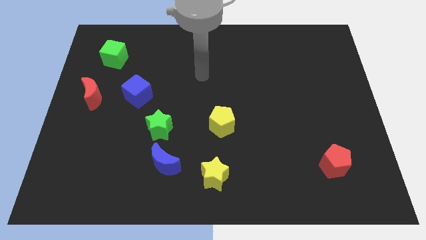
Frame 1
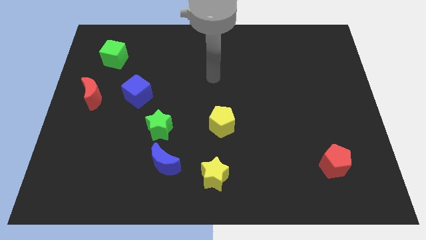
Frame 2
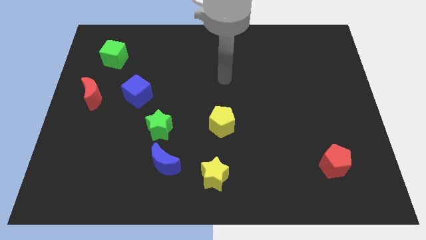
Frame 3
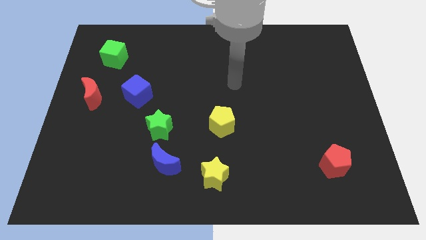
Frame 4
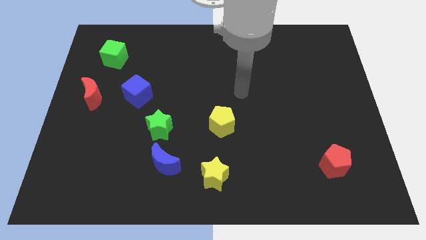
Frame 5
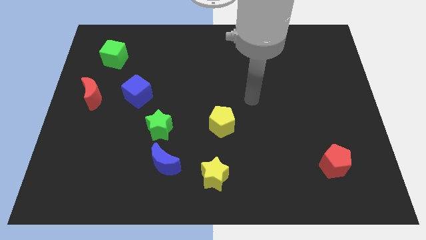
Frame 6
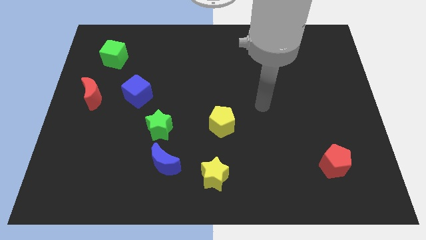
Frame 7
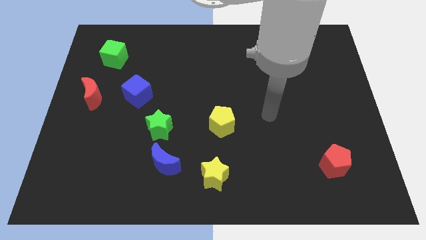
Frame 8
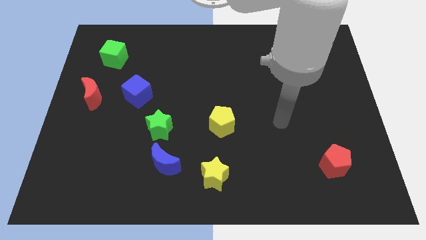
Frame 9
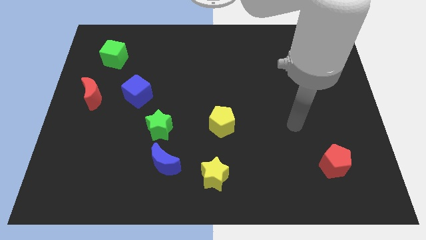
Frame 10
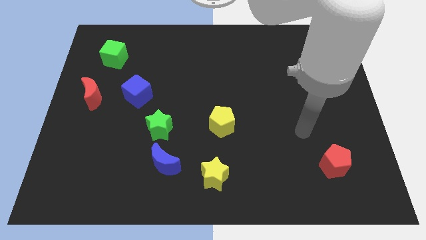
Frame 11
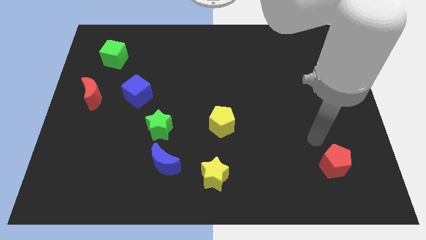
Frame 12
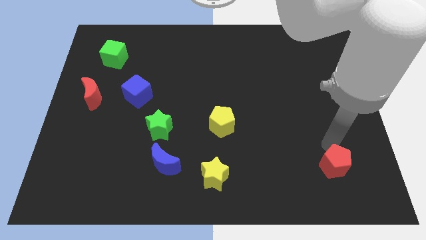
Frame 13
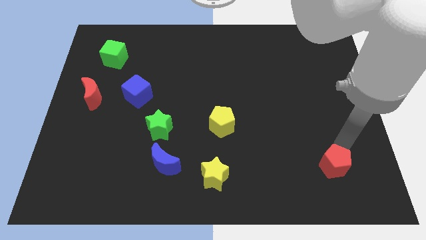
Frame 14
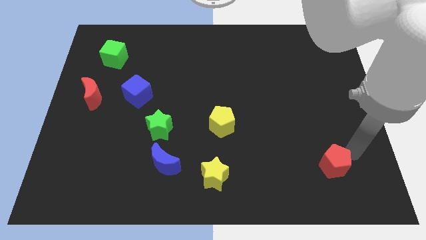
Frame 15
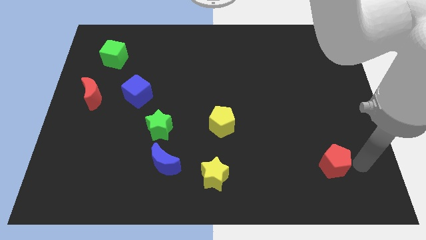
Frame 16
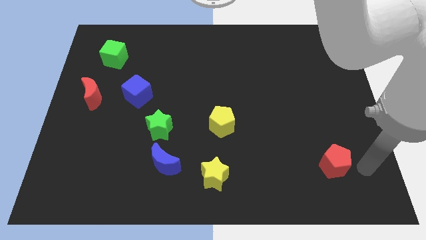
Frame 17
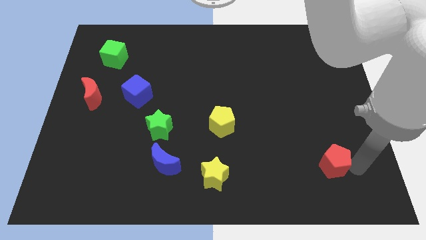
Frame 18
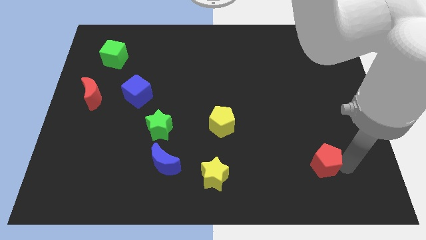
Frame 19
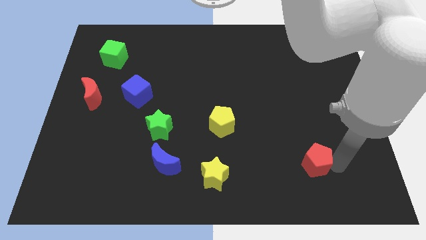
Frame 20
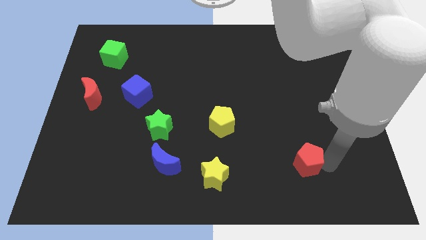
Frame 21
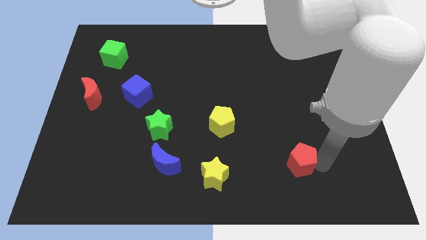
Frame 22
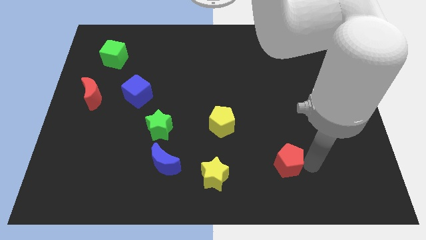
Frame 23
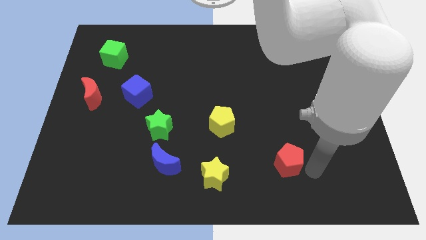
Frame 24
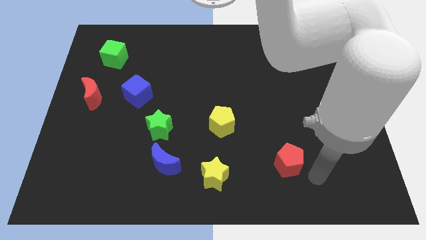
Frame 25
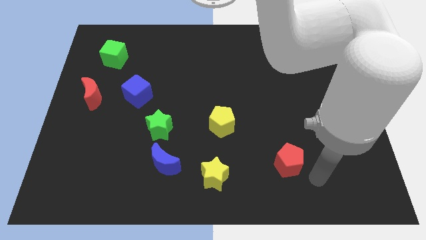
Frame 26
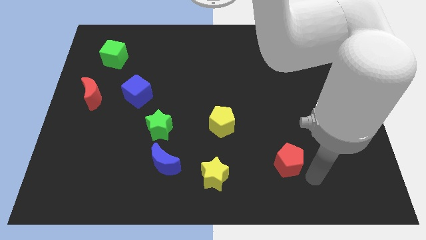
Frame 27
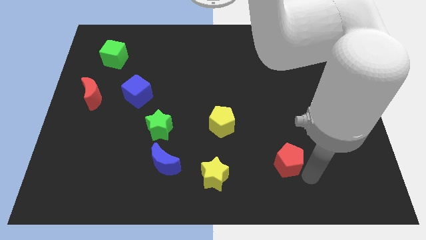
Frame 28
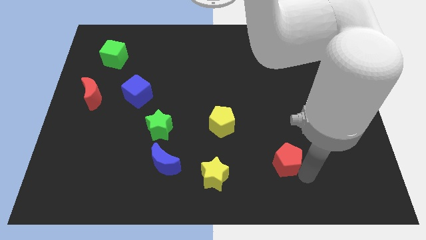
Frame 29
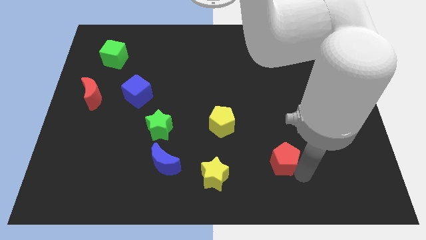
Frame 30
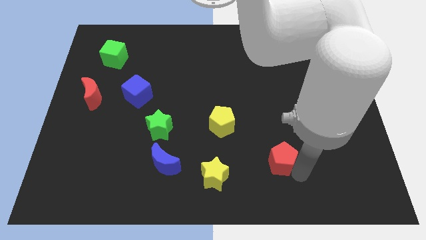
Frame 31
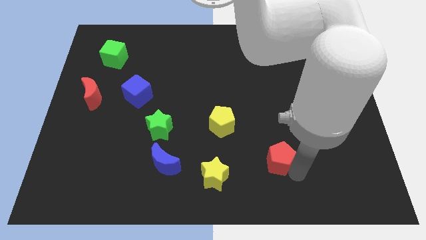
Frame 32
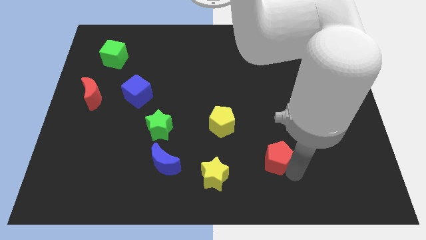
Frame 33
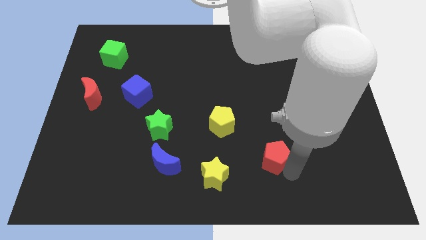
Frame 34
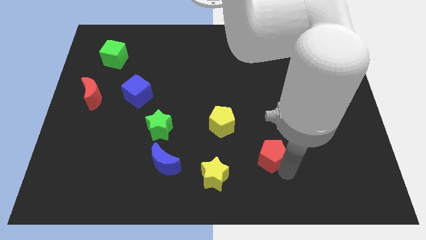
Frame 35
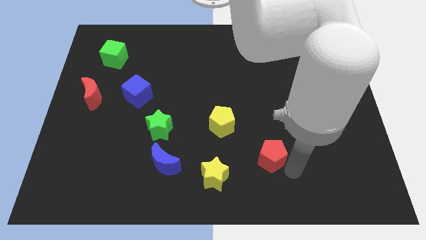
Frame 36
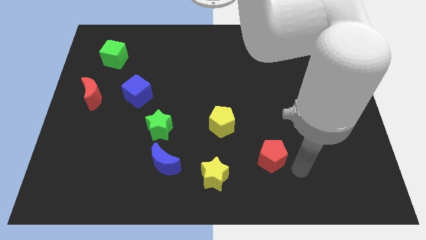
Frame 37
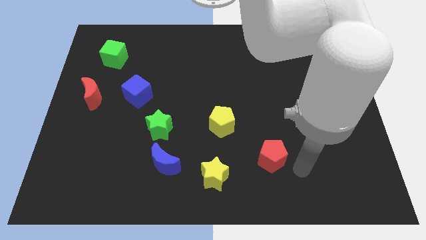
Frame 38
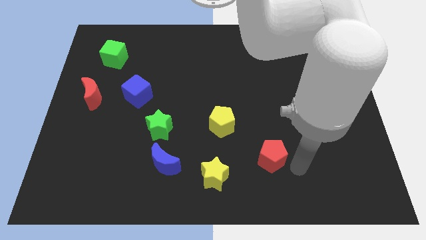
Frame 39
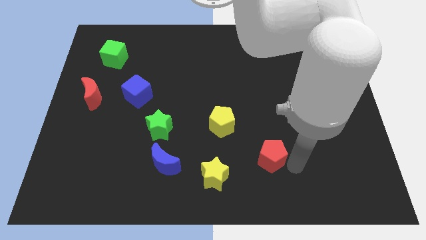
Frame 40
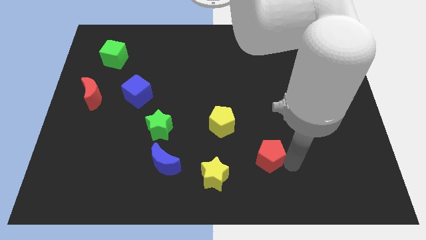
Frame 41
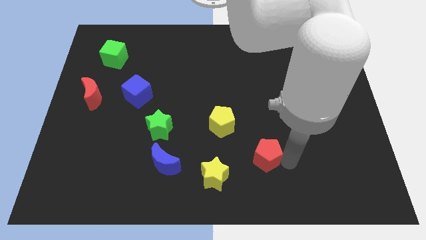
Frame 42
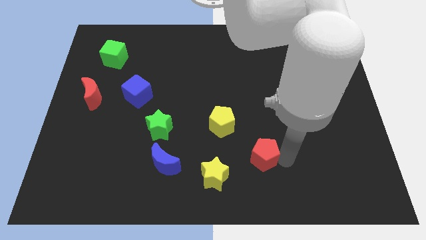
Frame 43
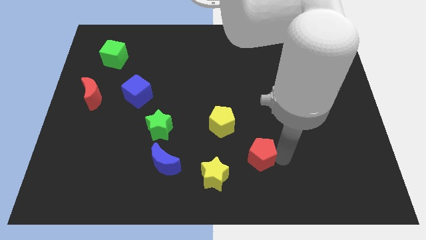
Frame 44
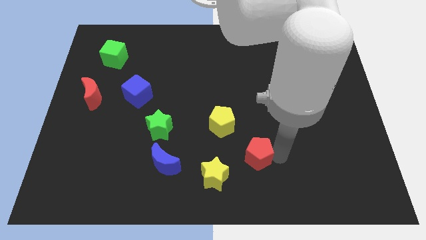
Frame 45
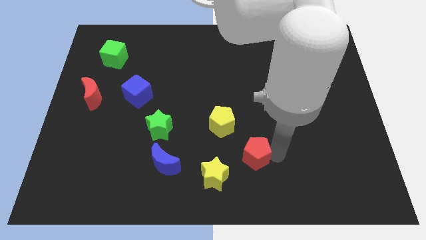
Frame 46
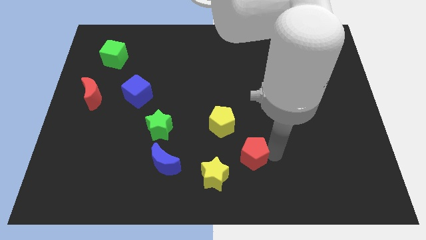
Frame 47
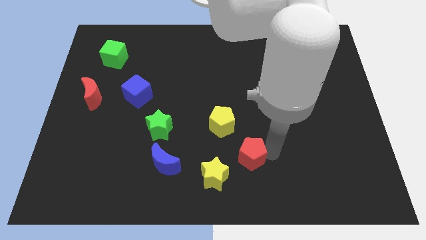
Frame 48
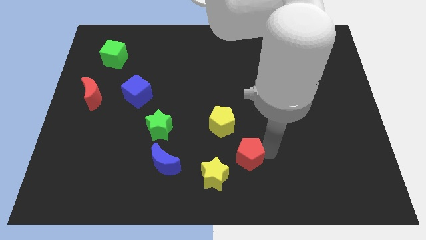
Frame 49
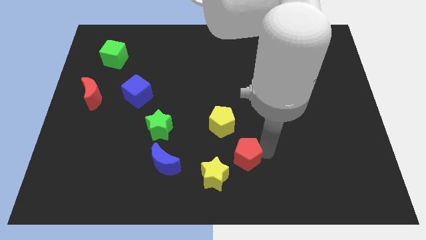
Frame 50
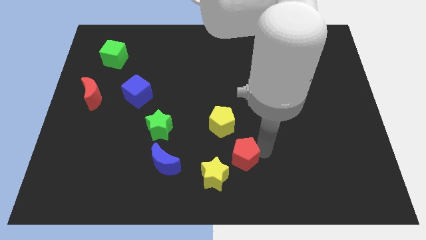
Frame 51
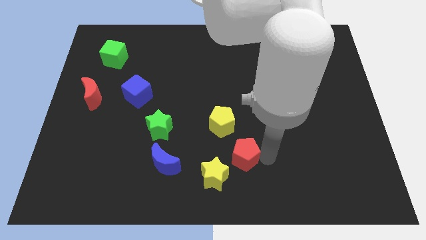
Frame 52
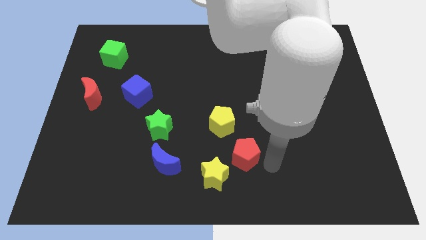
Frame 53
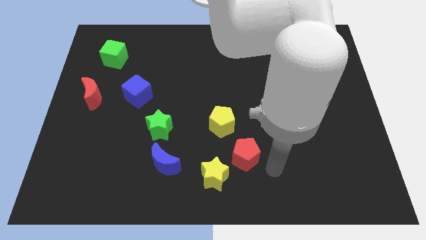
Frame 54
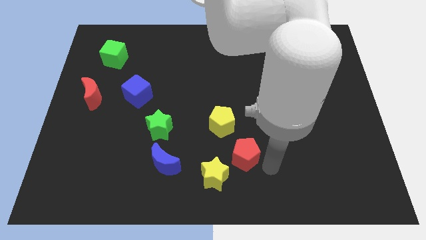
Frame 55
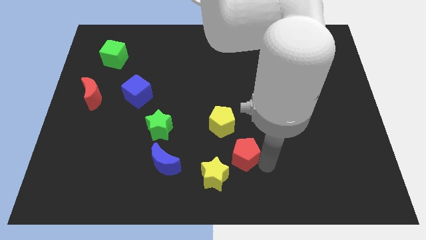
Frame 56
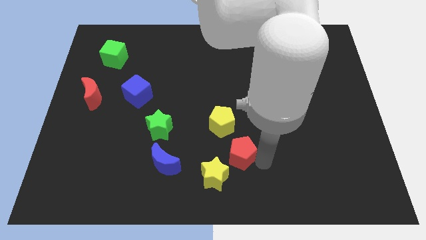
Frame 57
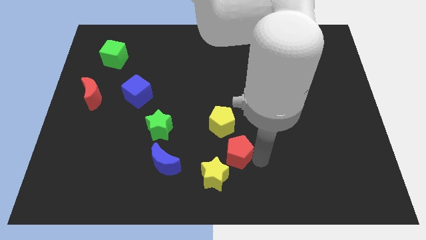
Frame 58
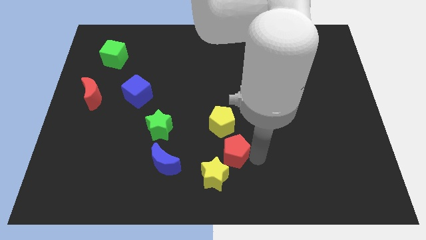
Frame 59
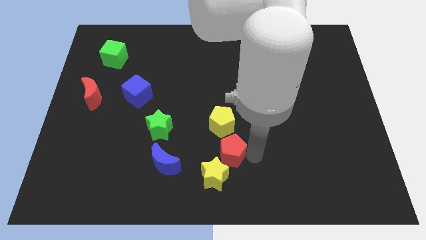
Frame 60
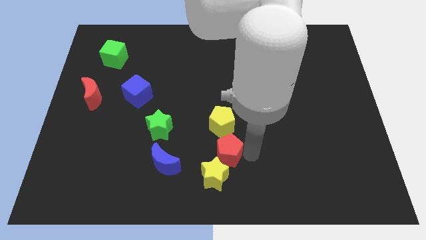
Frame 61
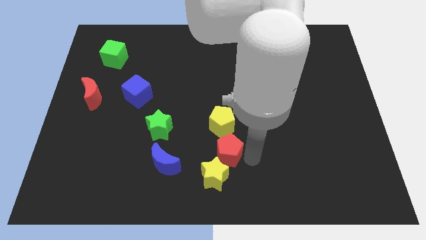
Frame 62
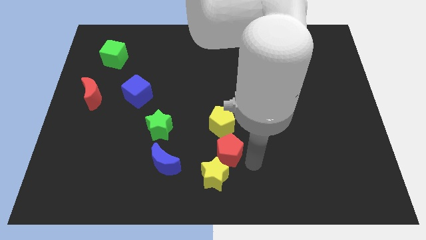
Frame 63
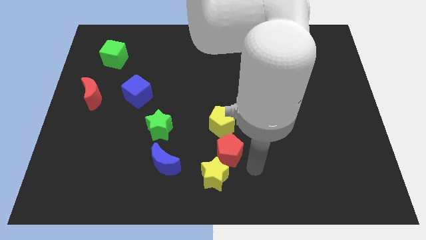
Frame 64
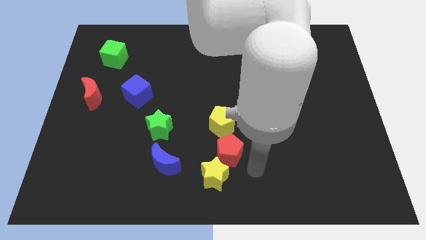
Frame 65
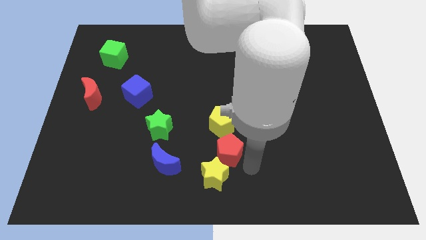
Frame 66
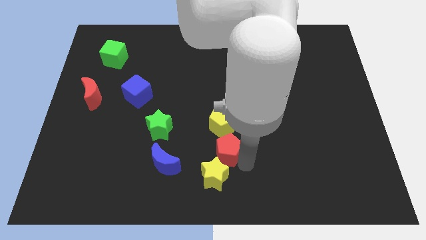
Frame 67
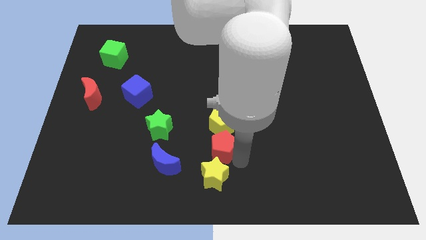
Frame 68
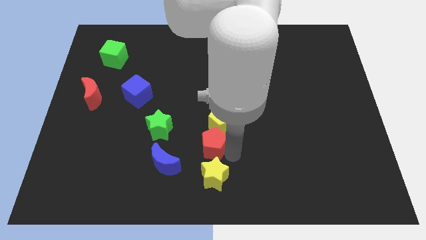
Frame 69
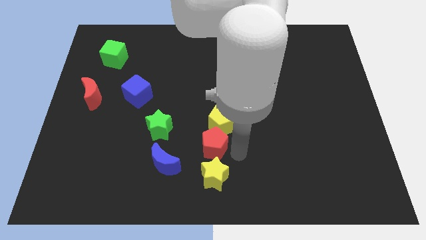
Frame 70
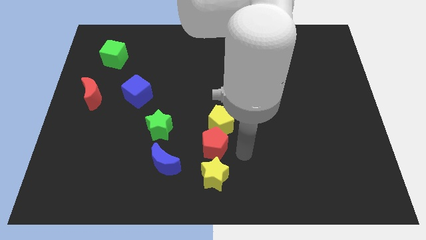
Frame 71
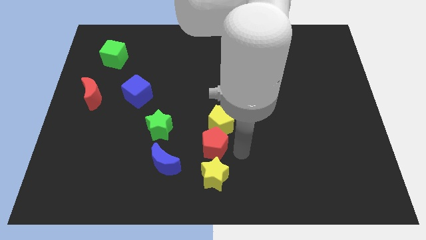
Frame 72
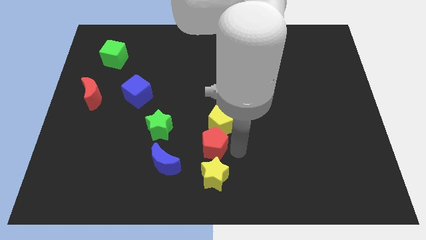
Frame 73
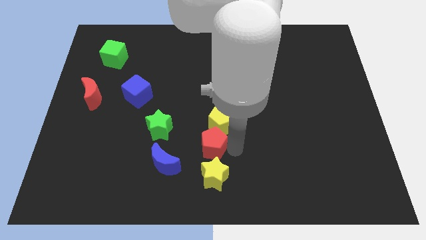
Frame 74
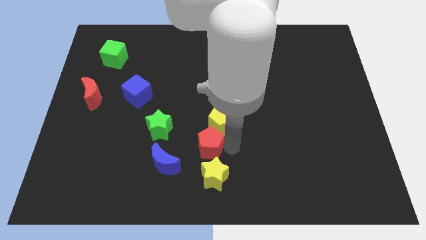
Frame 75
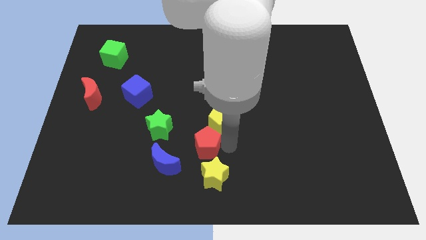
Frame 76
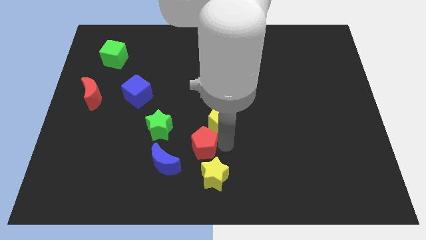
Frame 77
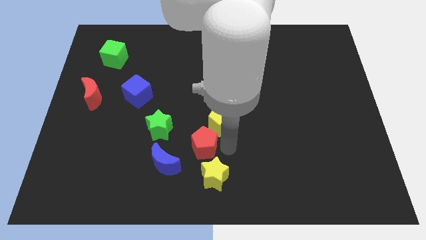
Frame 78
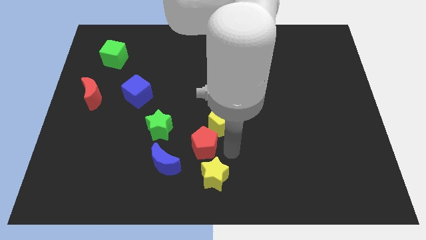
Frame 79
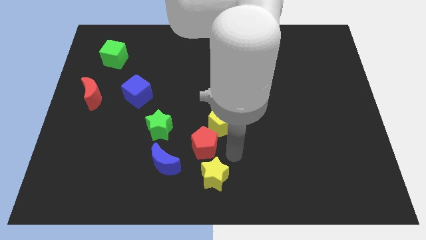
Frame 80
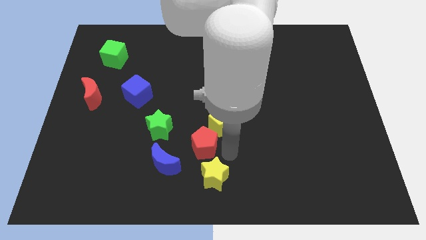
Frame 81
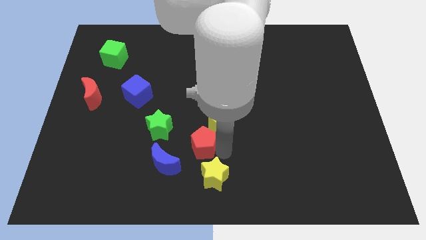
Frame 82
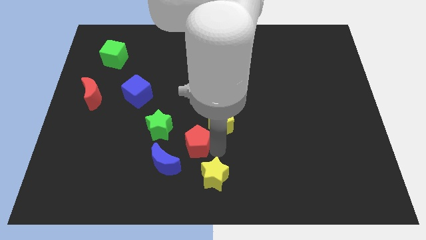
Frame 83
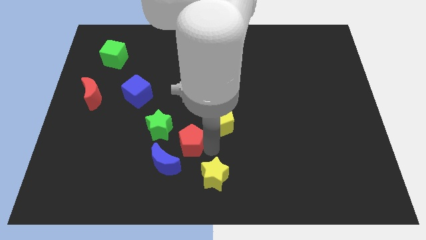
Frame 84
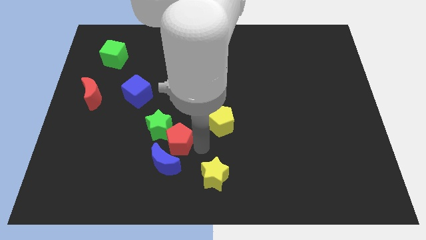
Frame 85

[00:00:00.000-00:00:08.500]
push the red pentagon next to the green star
